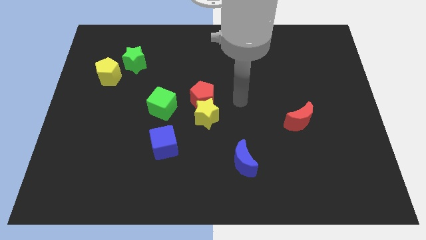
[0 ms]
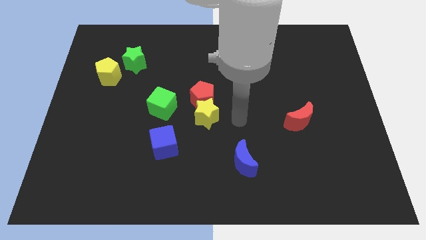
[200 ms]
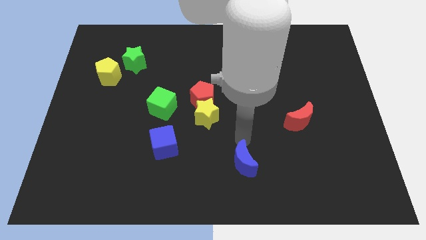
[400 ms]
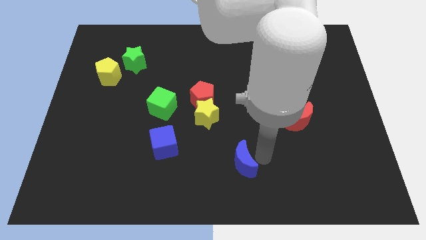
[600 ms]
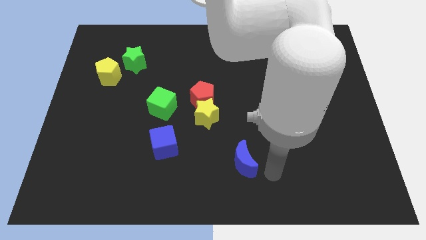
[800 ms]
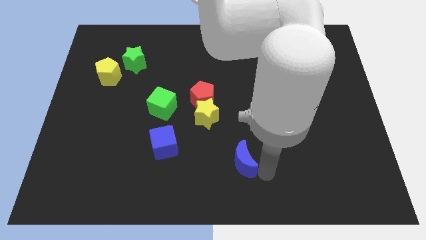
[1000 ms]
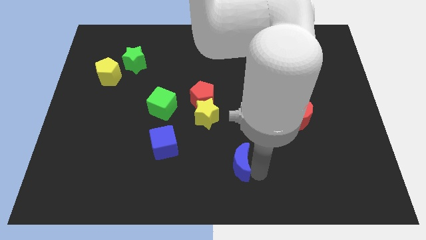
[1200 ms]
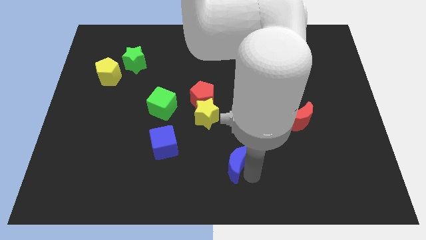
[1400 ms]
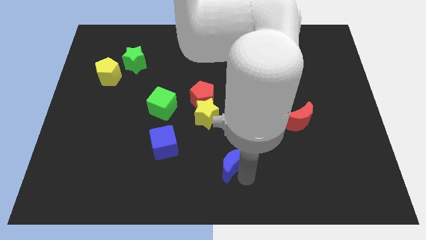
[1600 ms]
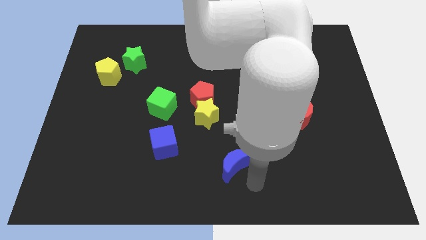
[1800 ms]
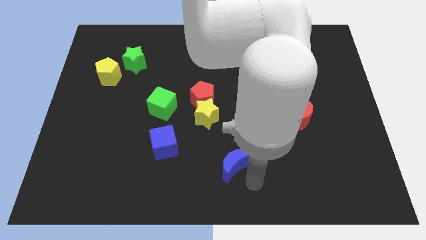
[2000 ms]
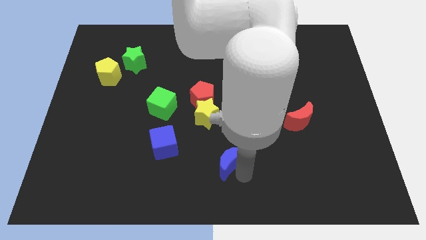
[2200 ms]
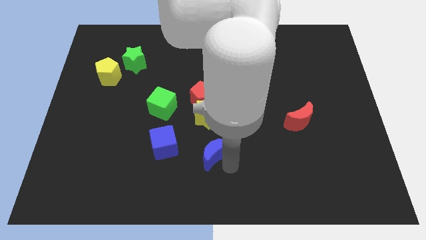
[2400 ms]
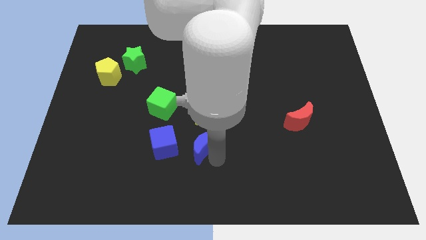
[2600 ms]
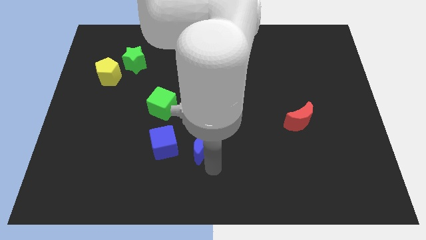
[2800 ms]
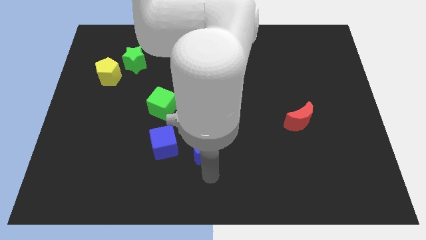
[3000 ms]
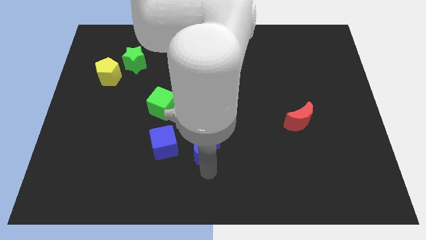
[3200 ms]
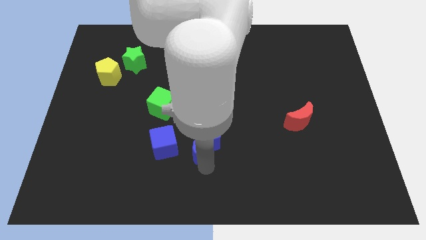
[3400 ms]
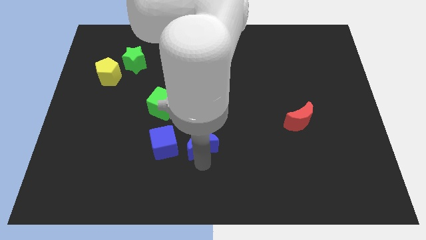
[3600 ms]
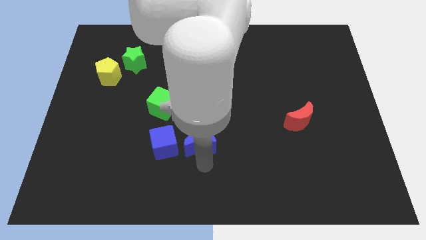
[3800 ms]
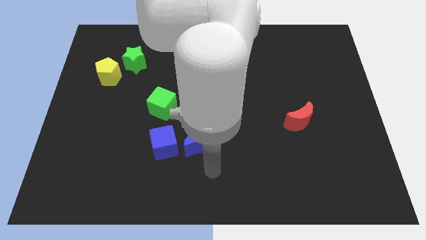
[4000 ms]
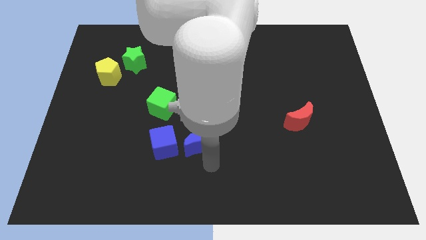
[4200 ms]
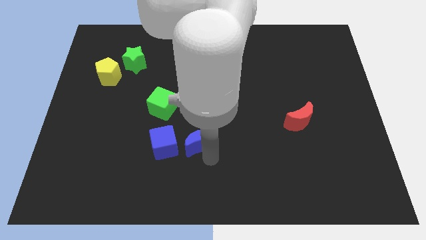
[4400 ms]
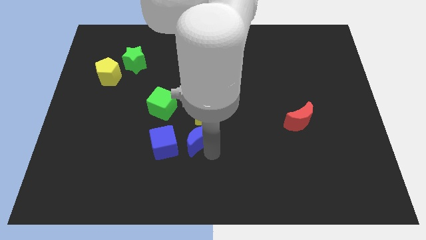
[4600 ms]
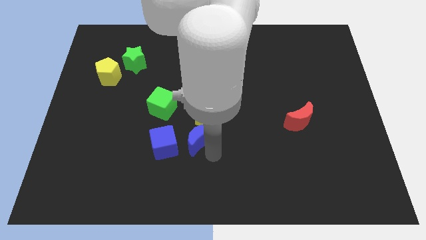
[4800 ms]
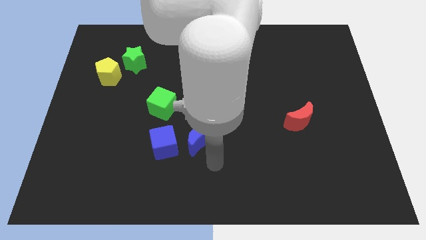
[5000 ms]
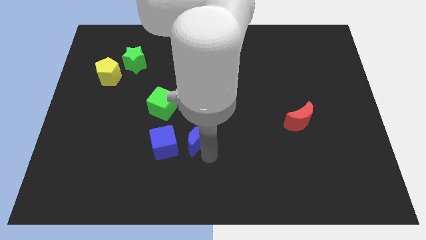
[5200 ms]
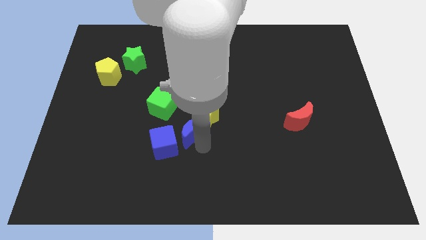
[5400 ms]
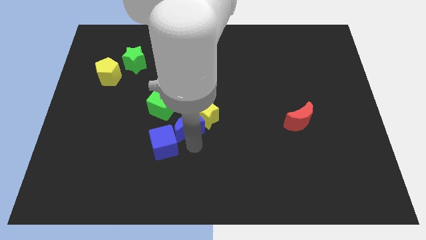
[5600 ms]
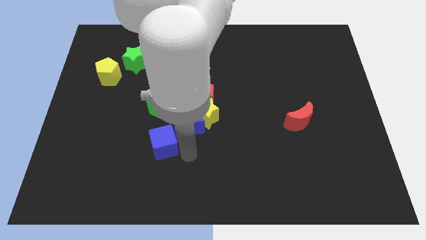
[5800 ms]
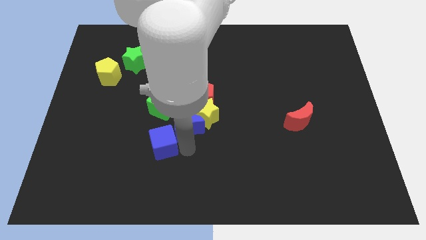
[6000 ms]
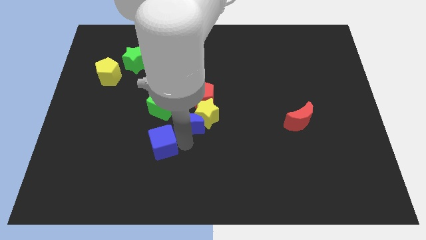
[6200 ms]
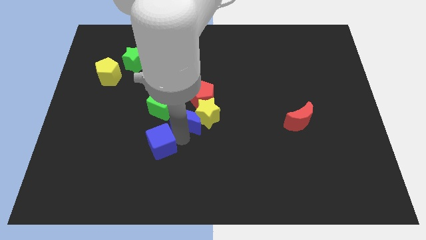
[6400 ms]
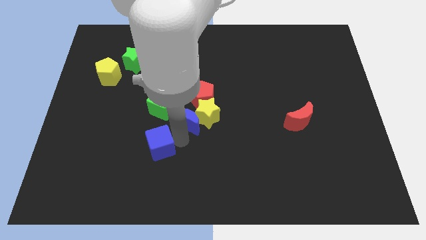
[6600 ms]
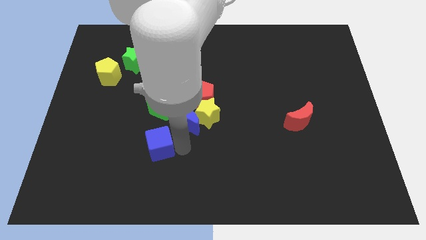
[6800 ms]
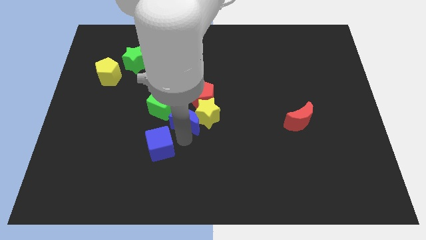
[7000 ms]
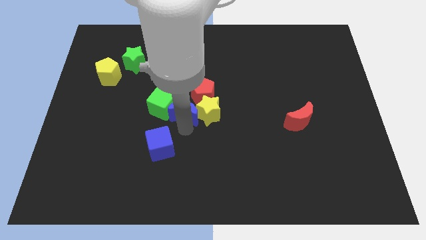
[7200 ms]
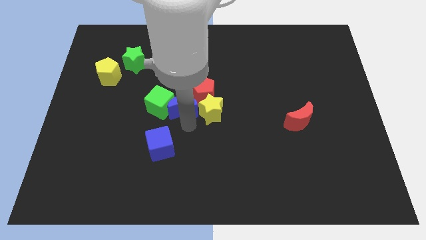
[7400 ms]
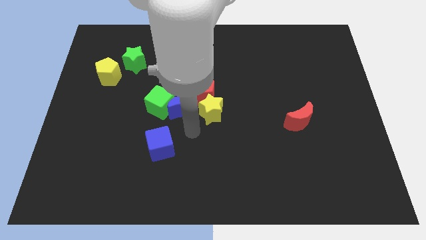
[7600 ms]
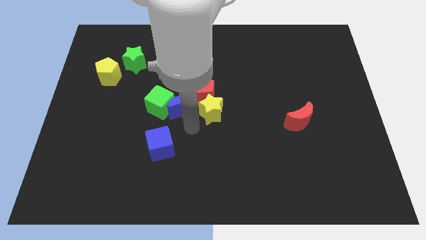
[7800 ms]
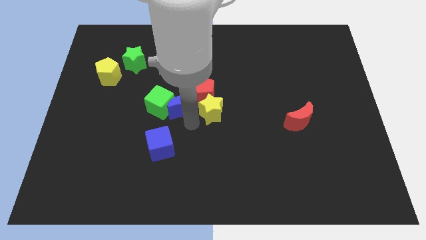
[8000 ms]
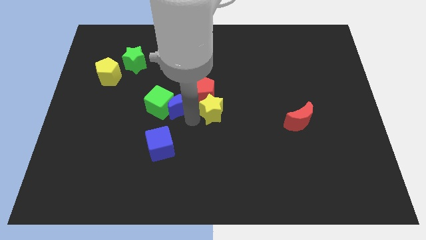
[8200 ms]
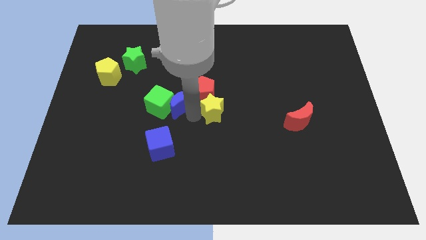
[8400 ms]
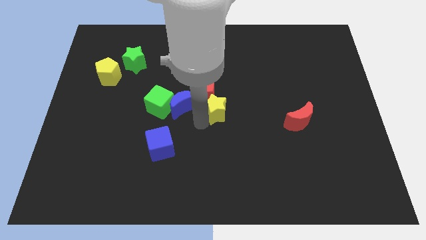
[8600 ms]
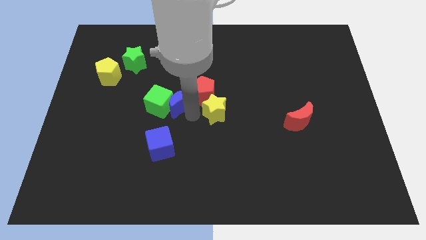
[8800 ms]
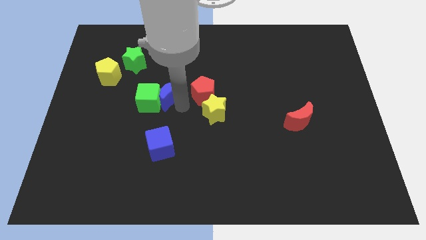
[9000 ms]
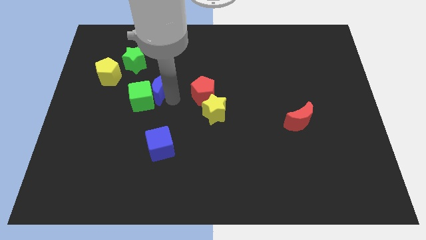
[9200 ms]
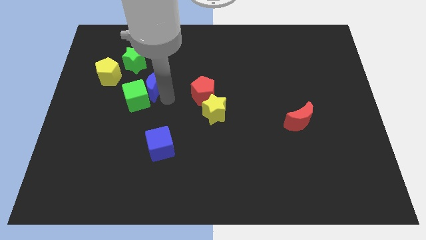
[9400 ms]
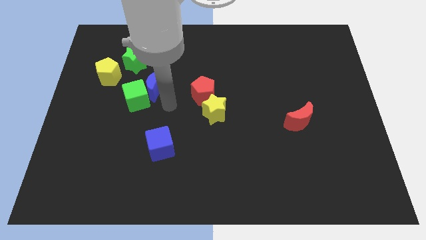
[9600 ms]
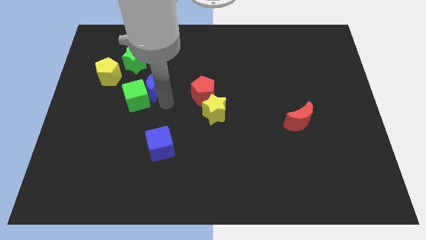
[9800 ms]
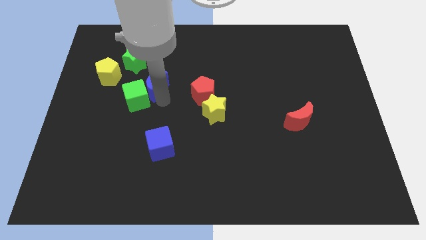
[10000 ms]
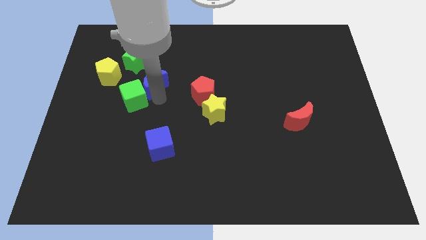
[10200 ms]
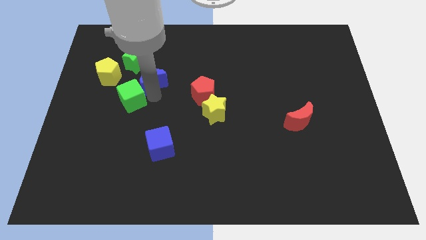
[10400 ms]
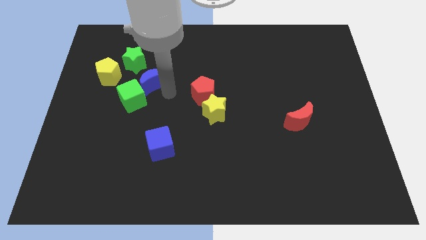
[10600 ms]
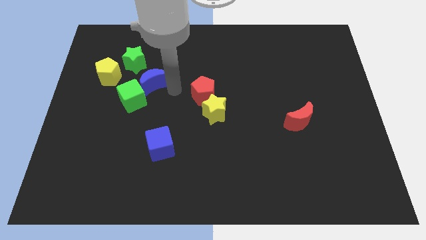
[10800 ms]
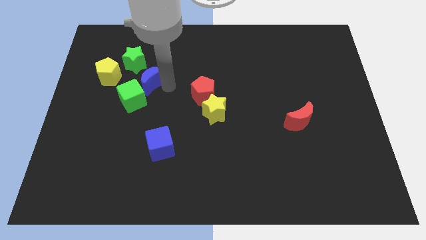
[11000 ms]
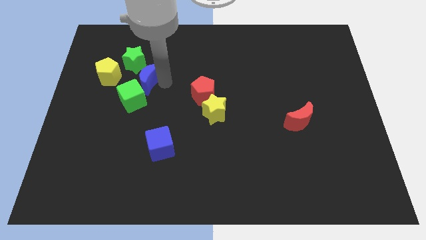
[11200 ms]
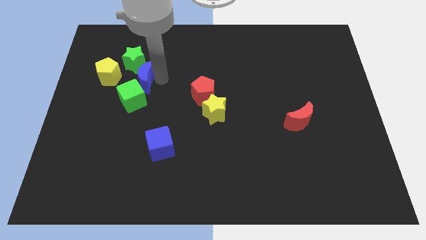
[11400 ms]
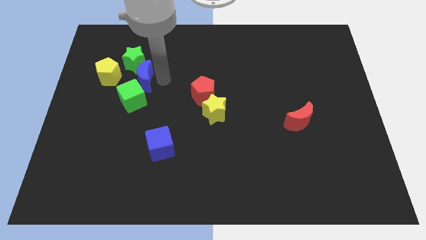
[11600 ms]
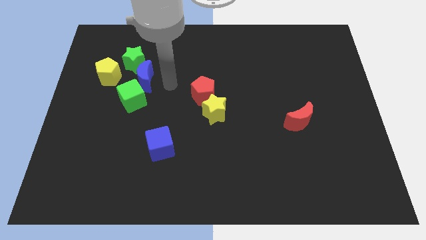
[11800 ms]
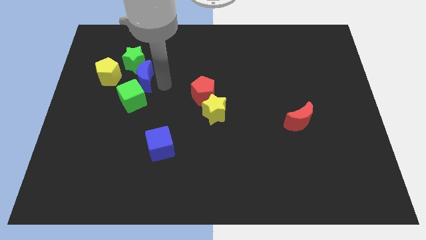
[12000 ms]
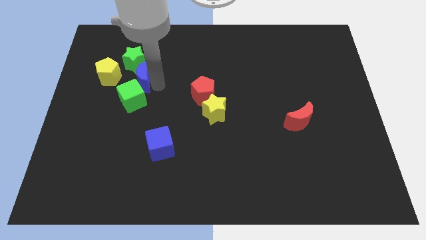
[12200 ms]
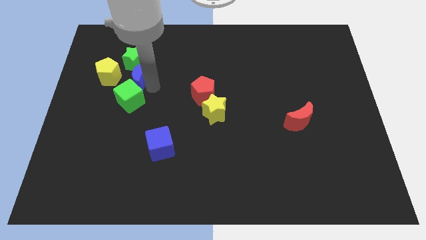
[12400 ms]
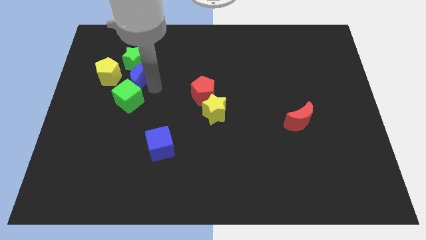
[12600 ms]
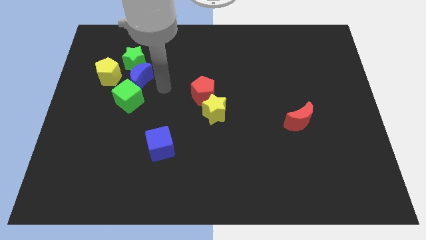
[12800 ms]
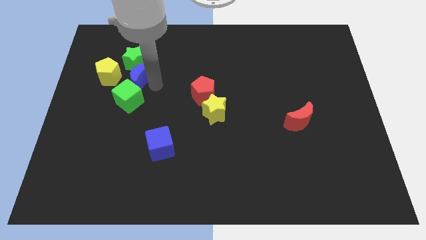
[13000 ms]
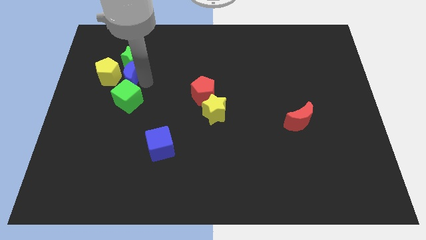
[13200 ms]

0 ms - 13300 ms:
put the blue moon close to the yellow pentagon
